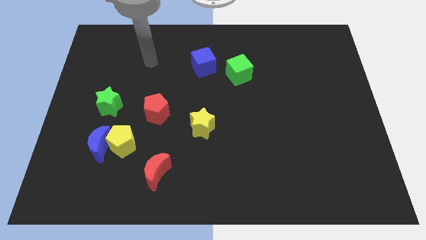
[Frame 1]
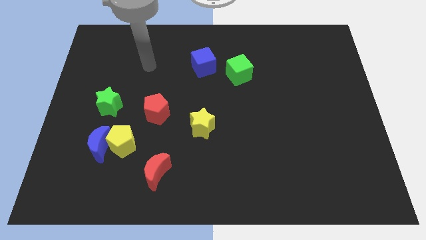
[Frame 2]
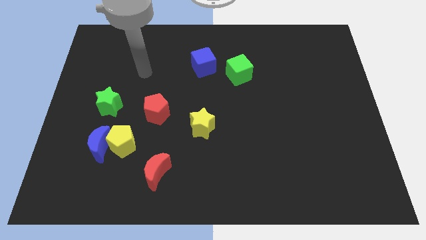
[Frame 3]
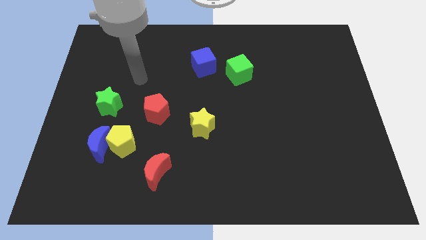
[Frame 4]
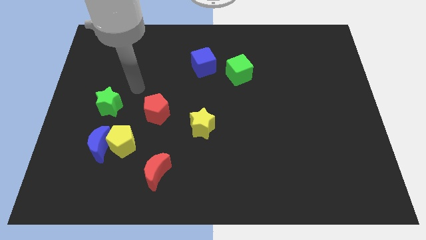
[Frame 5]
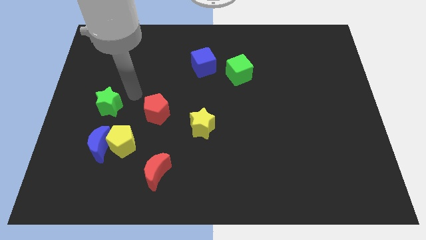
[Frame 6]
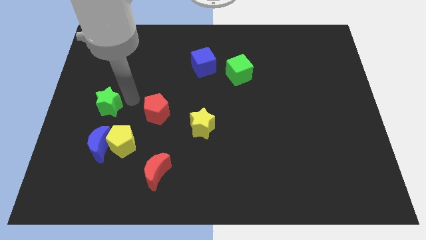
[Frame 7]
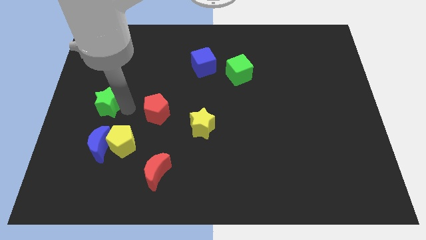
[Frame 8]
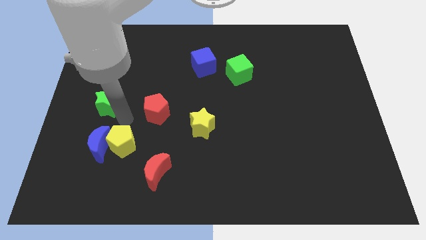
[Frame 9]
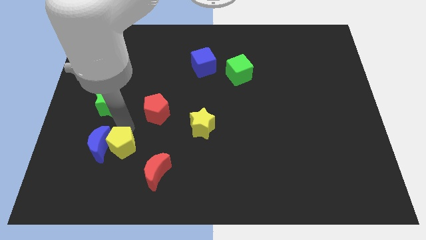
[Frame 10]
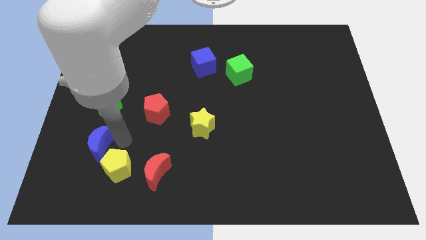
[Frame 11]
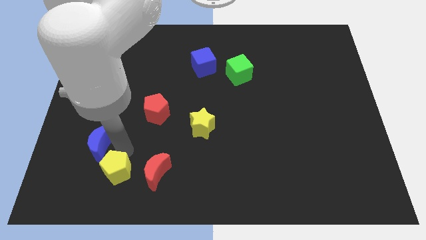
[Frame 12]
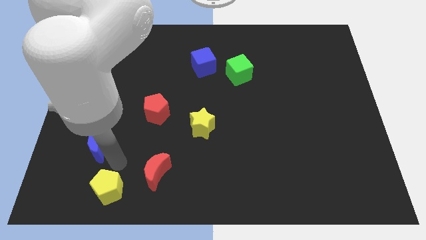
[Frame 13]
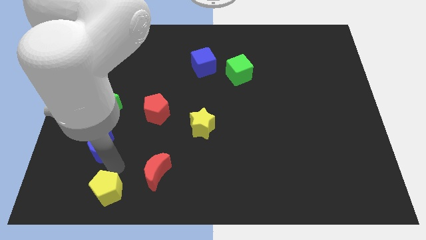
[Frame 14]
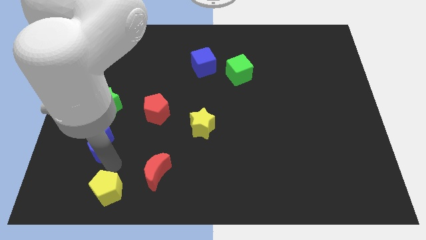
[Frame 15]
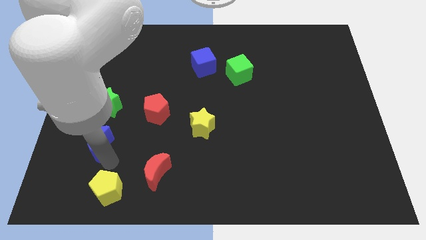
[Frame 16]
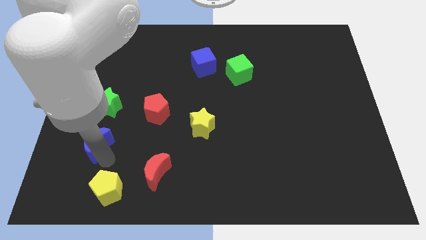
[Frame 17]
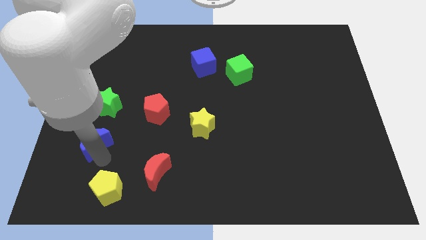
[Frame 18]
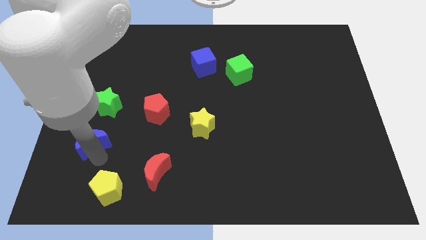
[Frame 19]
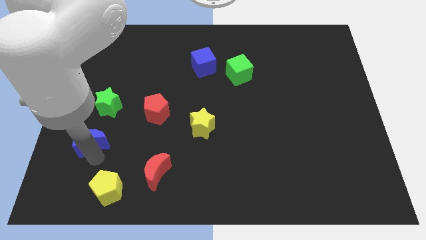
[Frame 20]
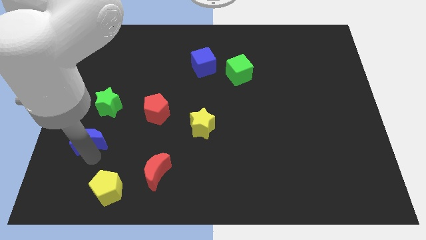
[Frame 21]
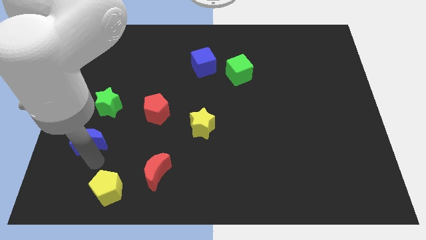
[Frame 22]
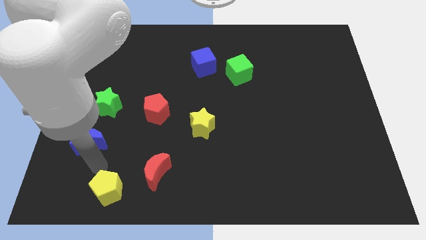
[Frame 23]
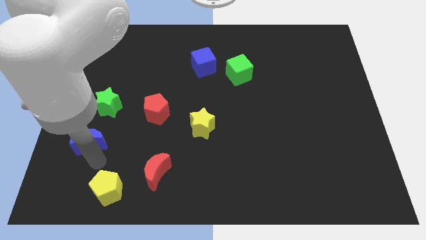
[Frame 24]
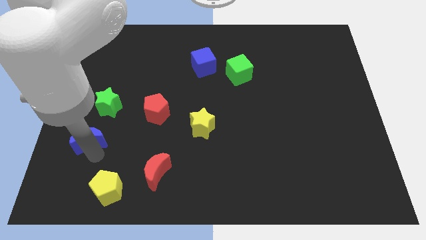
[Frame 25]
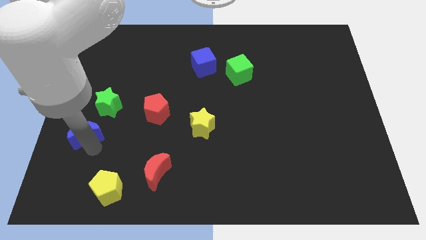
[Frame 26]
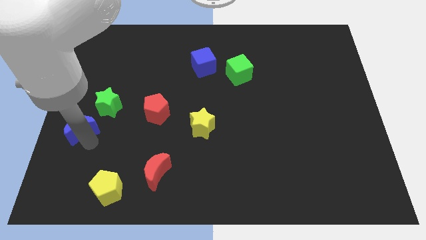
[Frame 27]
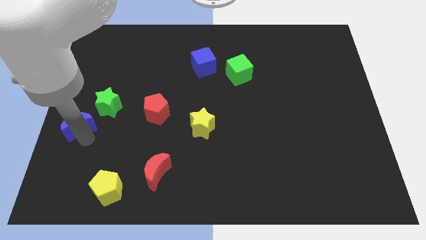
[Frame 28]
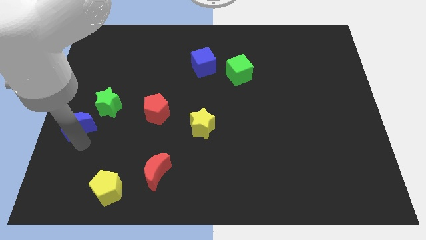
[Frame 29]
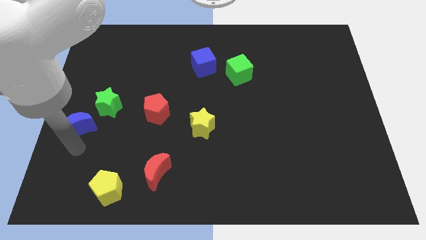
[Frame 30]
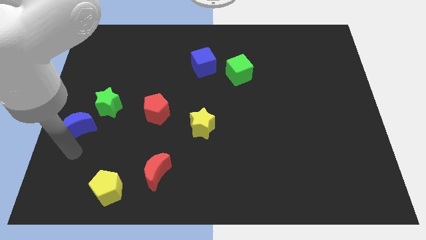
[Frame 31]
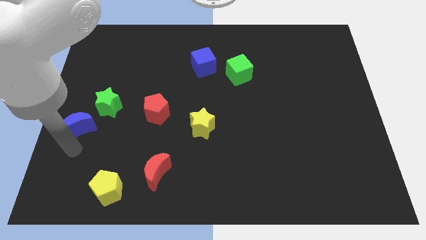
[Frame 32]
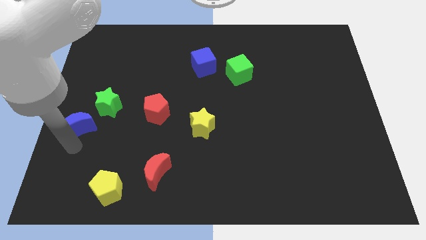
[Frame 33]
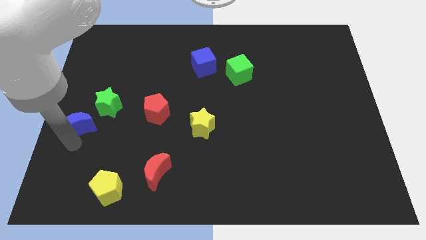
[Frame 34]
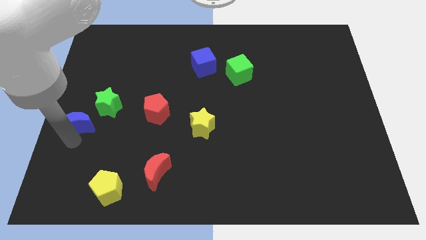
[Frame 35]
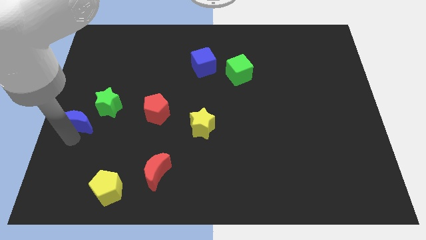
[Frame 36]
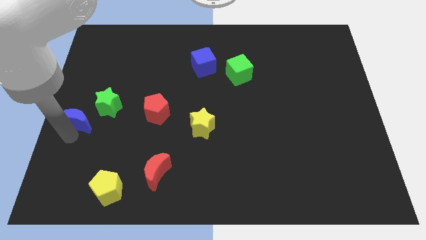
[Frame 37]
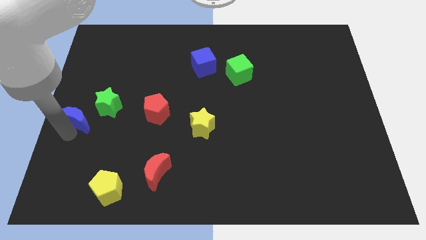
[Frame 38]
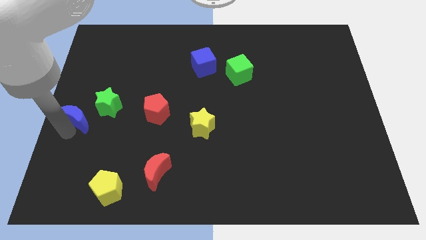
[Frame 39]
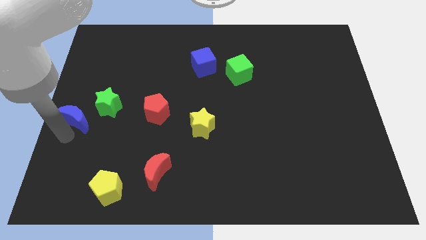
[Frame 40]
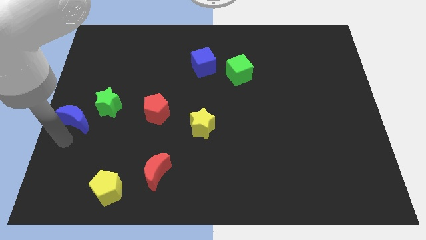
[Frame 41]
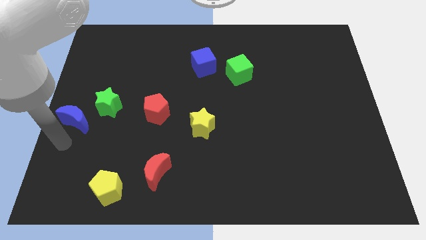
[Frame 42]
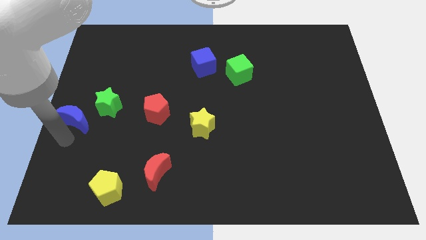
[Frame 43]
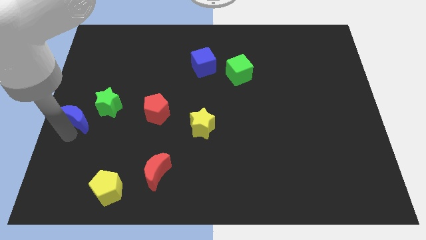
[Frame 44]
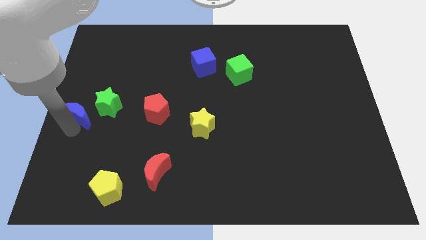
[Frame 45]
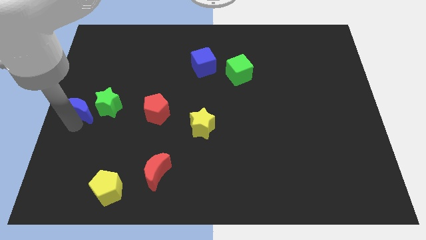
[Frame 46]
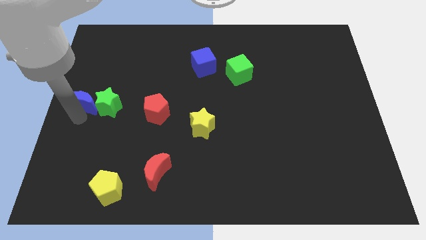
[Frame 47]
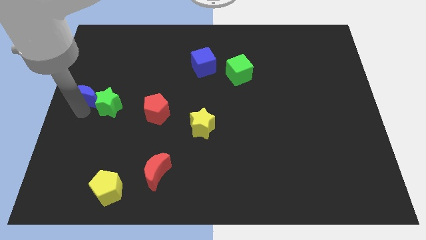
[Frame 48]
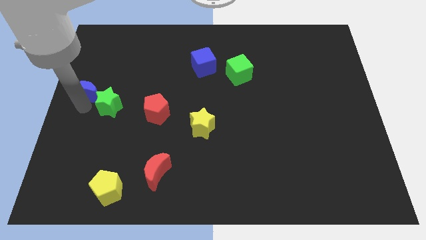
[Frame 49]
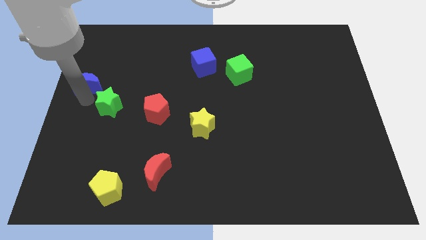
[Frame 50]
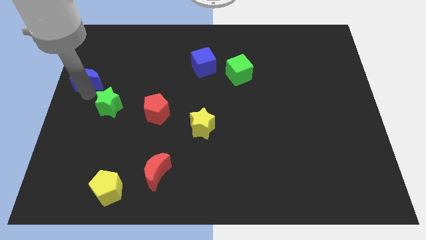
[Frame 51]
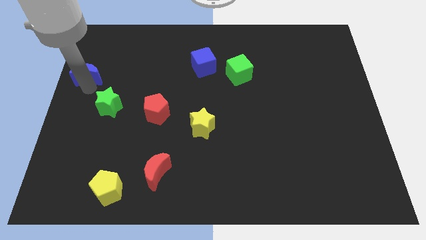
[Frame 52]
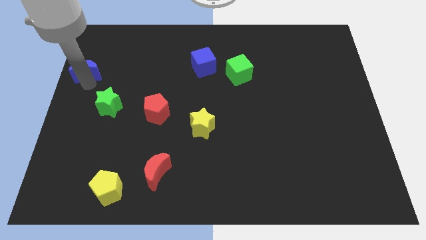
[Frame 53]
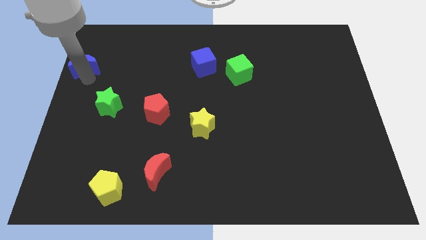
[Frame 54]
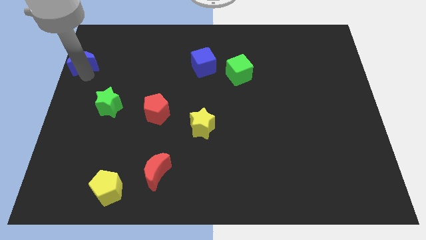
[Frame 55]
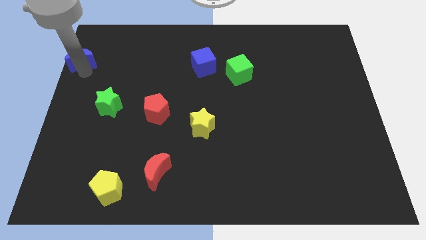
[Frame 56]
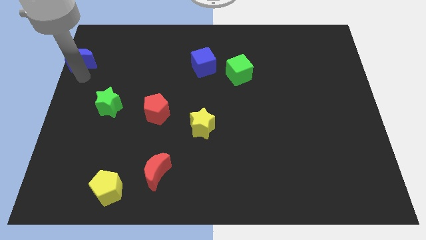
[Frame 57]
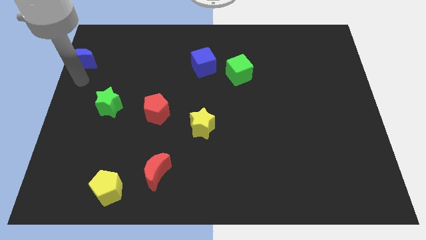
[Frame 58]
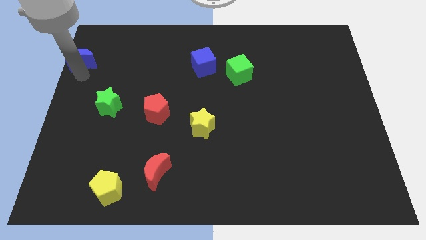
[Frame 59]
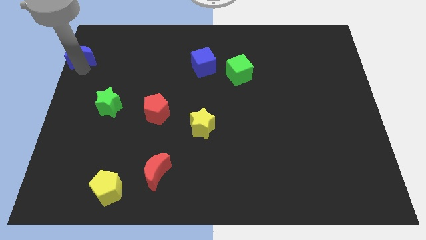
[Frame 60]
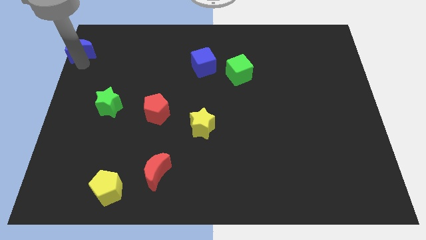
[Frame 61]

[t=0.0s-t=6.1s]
slide the blue moon to the top left

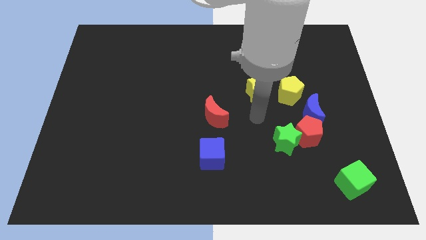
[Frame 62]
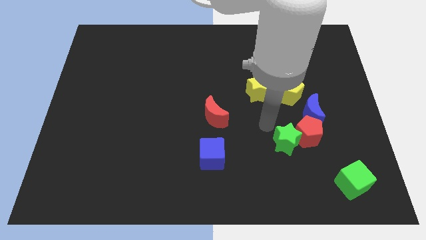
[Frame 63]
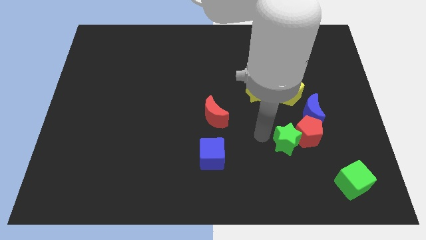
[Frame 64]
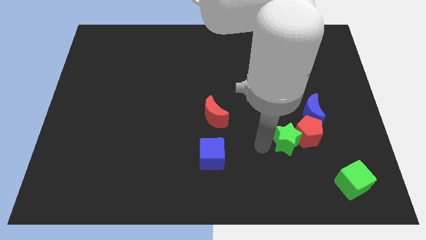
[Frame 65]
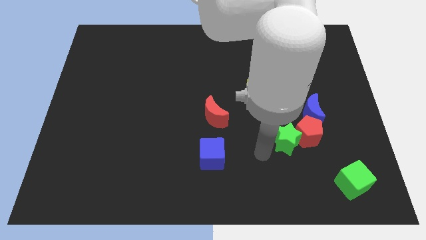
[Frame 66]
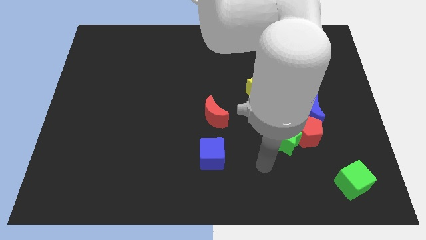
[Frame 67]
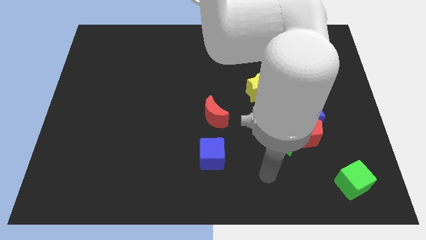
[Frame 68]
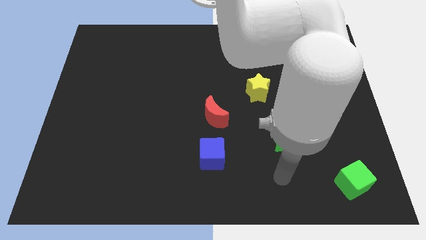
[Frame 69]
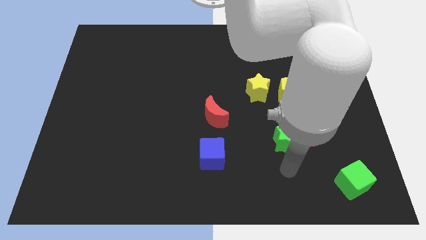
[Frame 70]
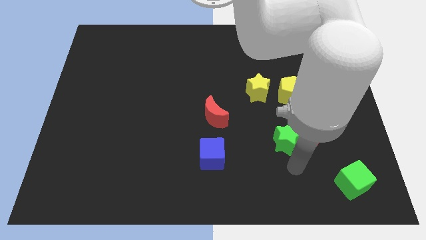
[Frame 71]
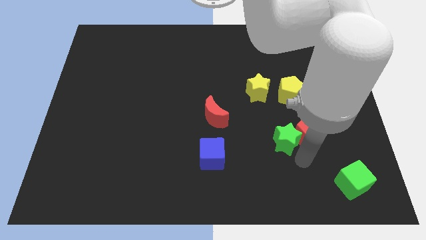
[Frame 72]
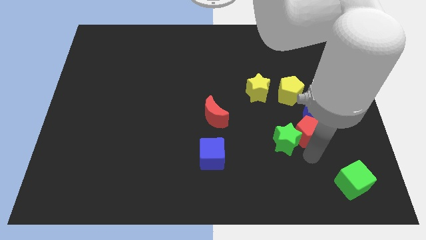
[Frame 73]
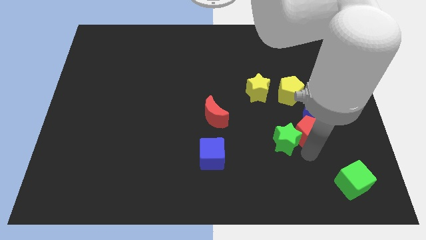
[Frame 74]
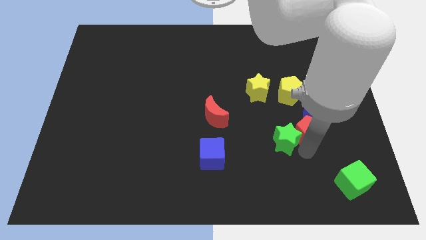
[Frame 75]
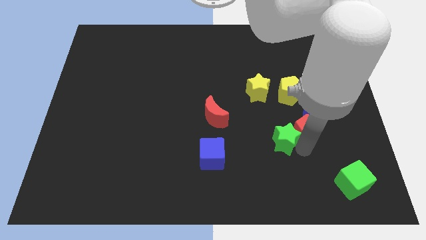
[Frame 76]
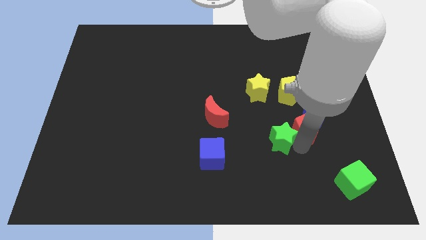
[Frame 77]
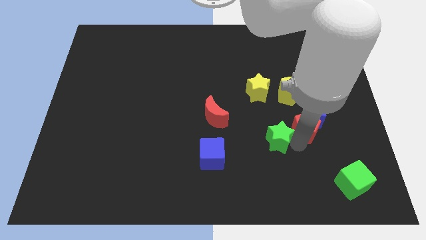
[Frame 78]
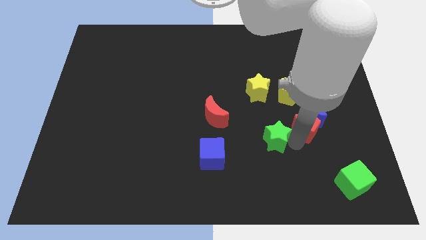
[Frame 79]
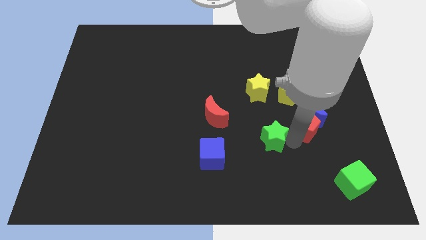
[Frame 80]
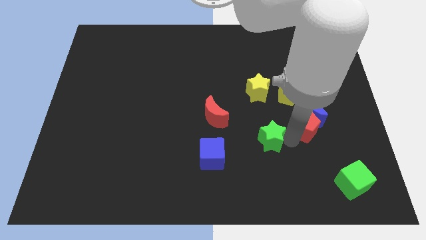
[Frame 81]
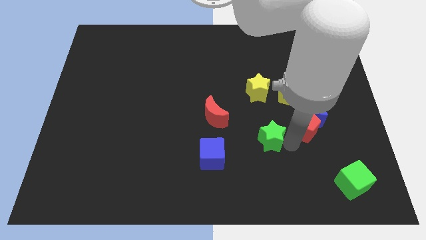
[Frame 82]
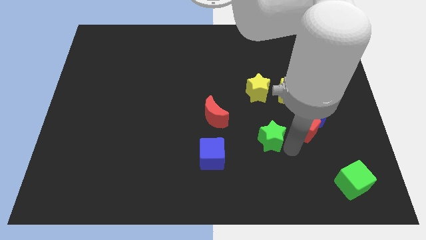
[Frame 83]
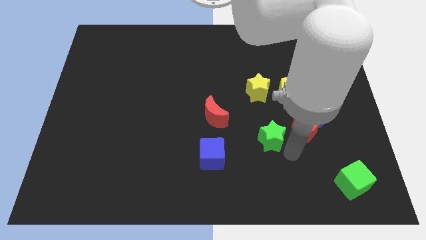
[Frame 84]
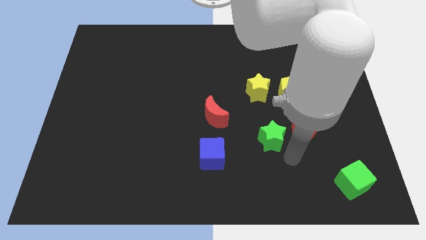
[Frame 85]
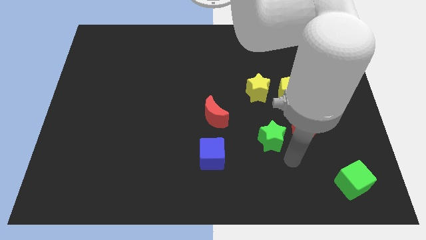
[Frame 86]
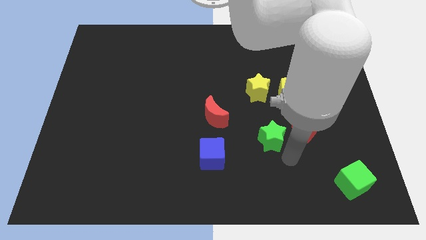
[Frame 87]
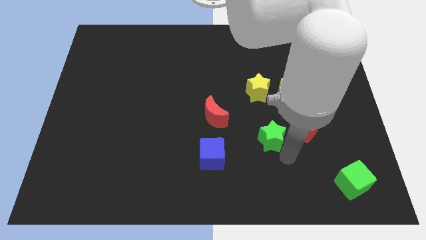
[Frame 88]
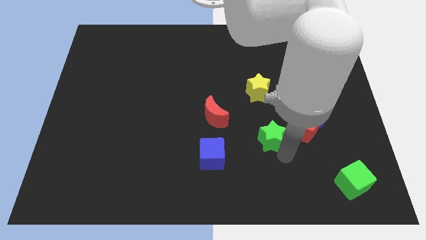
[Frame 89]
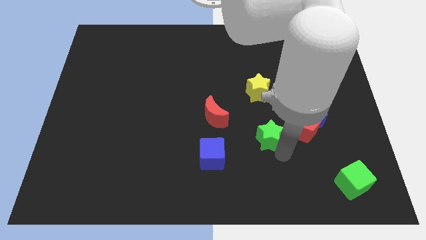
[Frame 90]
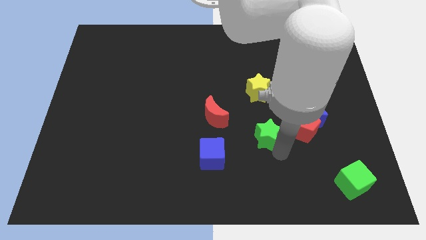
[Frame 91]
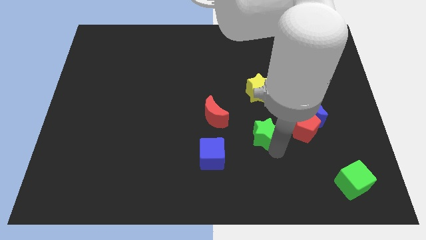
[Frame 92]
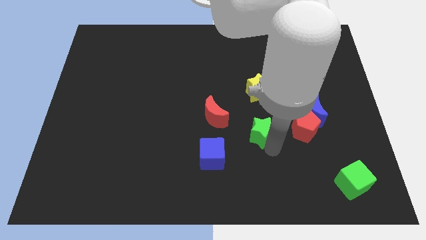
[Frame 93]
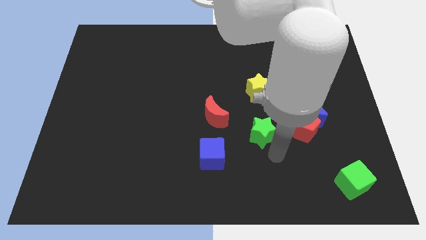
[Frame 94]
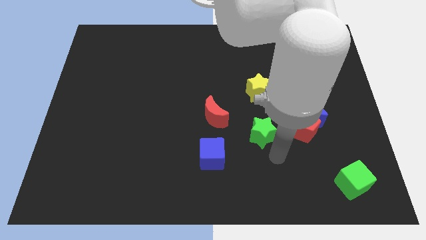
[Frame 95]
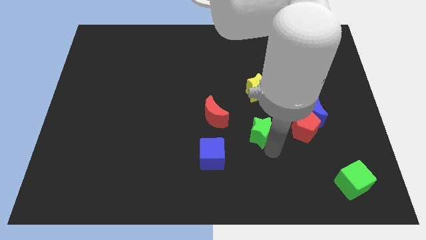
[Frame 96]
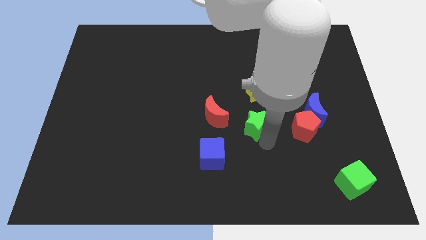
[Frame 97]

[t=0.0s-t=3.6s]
move the green star to the middle
